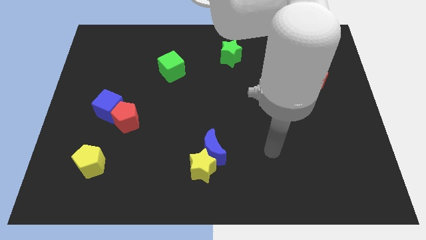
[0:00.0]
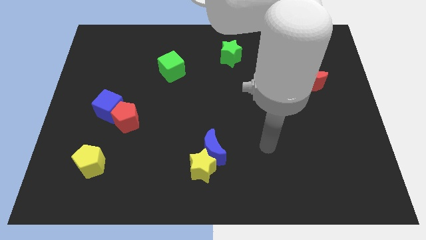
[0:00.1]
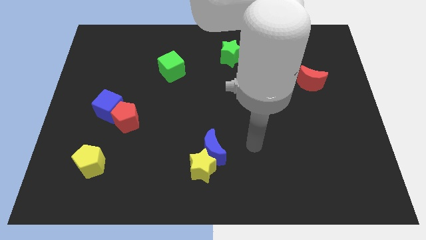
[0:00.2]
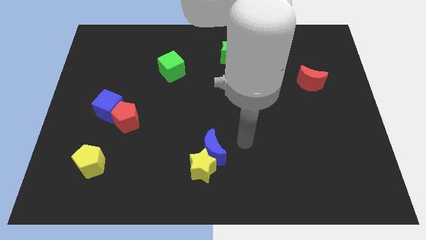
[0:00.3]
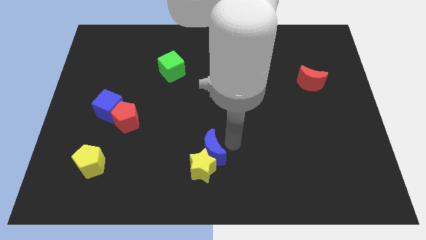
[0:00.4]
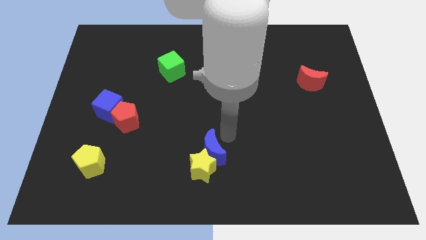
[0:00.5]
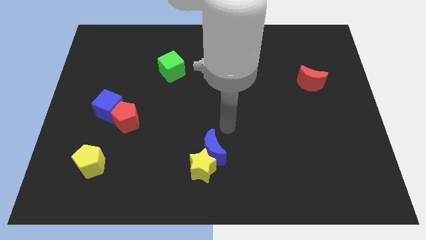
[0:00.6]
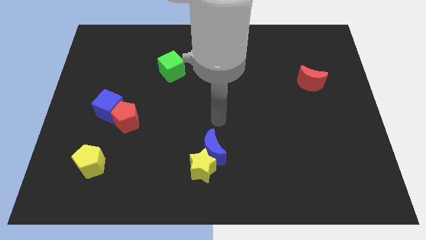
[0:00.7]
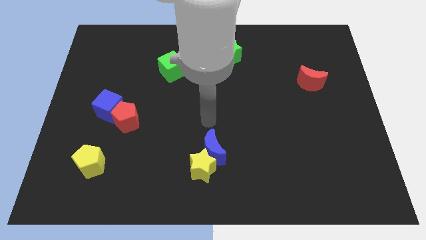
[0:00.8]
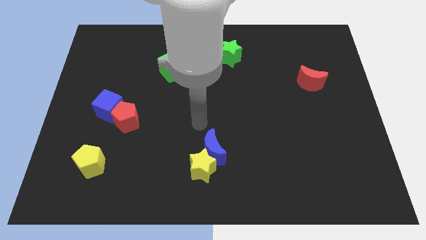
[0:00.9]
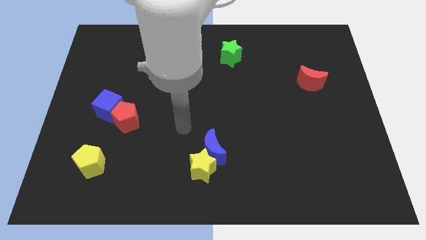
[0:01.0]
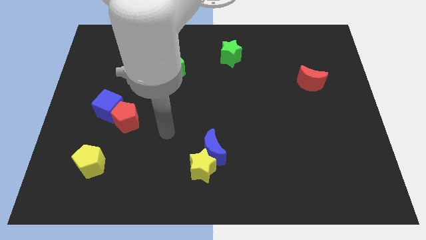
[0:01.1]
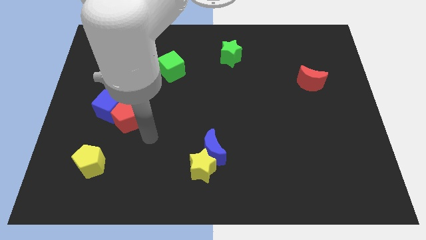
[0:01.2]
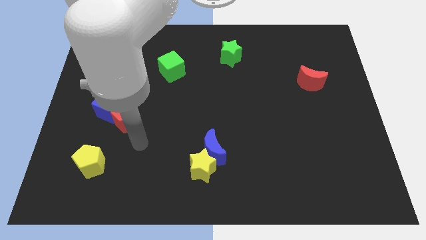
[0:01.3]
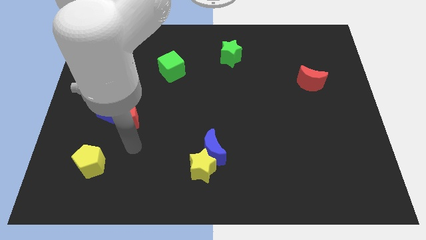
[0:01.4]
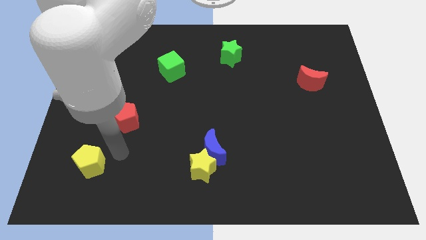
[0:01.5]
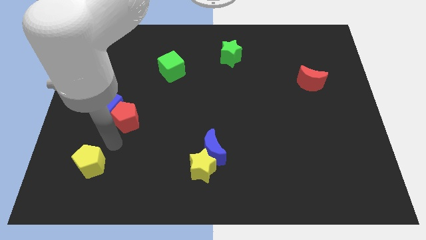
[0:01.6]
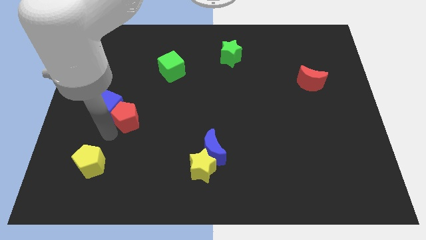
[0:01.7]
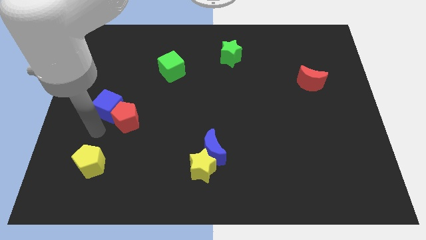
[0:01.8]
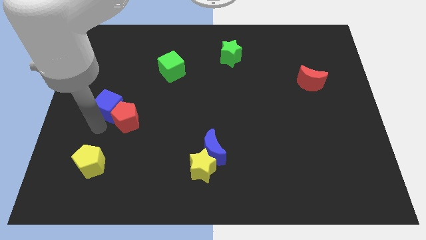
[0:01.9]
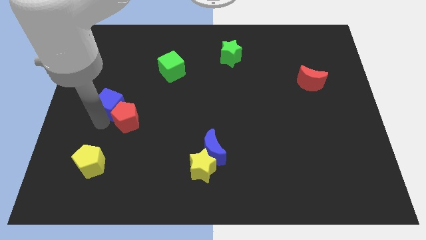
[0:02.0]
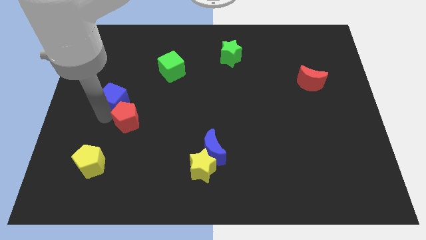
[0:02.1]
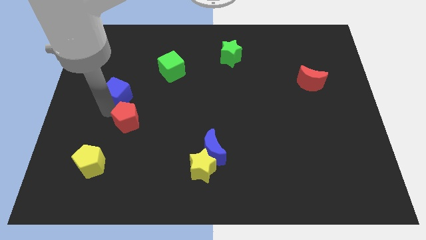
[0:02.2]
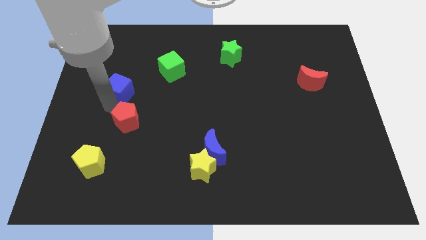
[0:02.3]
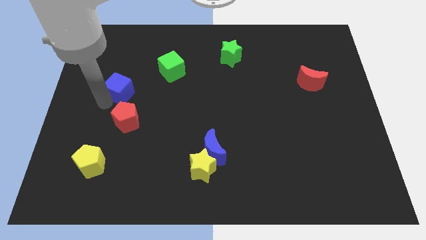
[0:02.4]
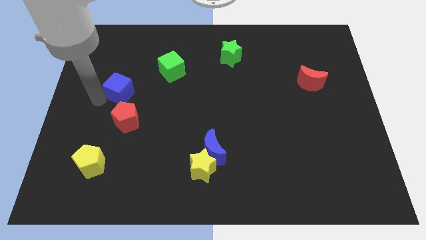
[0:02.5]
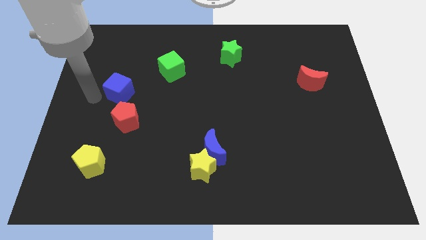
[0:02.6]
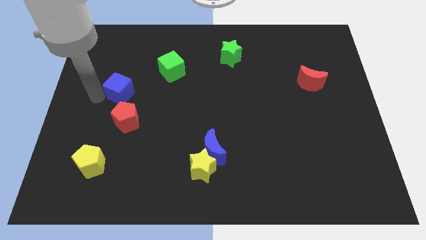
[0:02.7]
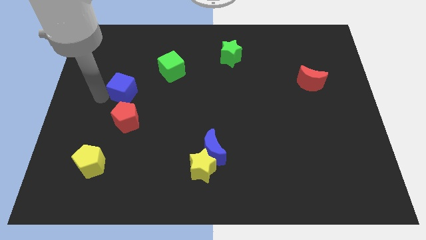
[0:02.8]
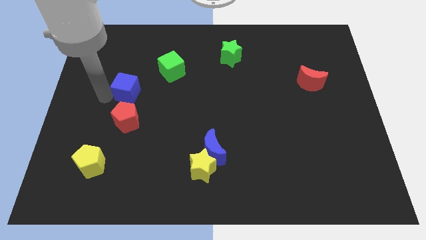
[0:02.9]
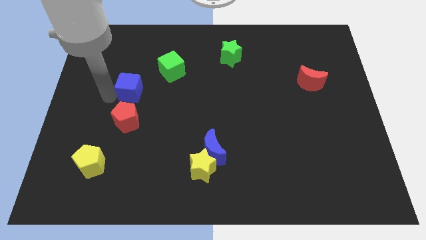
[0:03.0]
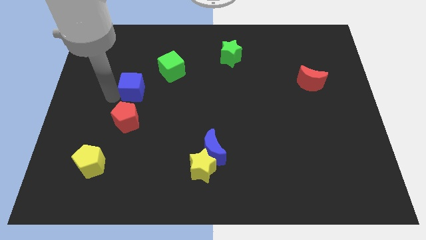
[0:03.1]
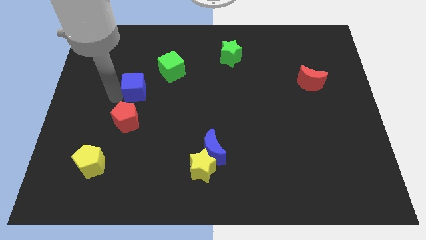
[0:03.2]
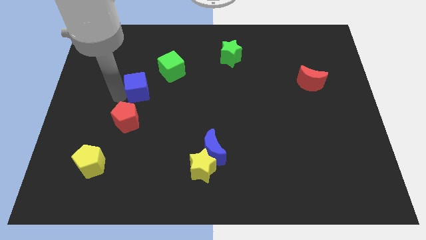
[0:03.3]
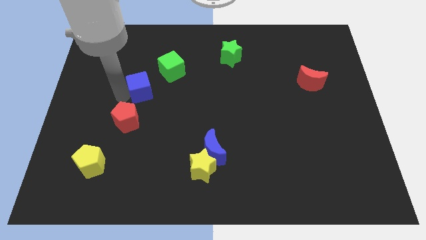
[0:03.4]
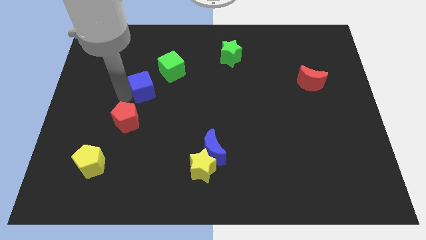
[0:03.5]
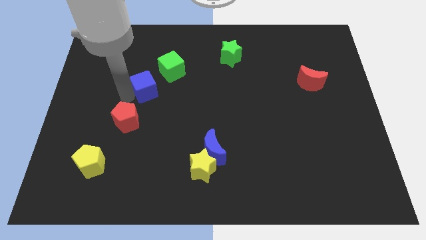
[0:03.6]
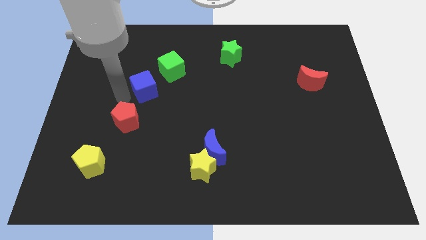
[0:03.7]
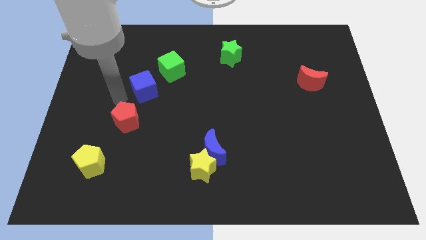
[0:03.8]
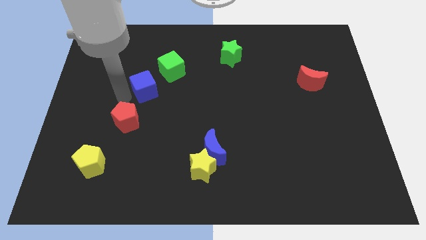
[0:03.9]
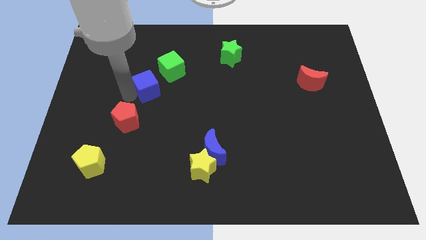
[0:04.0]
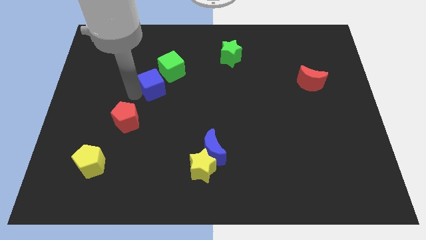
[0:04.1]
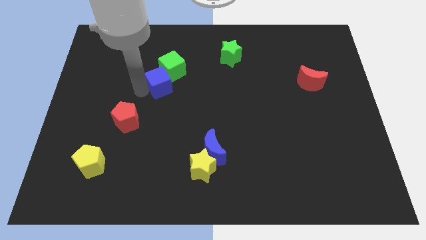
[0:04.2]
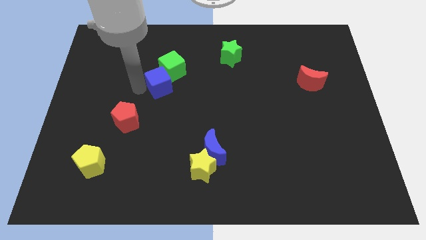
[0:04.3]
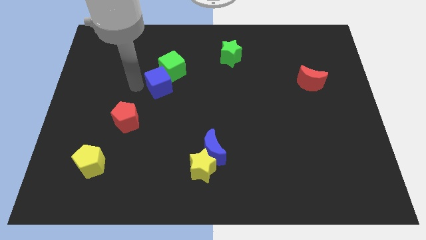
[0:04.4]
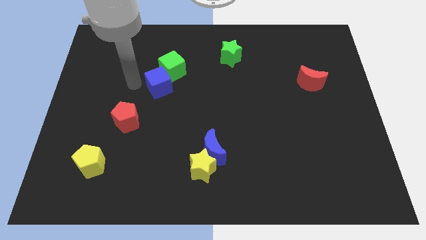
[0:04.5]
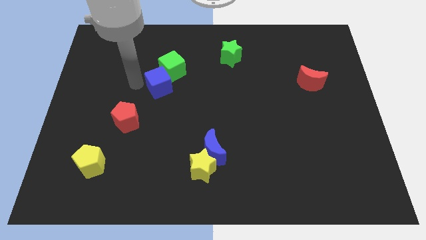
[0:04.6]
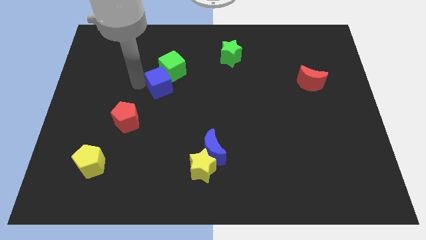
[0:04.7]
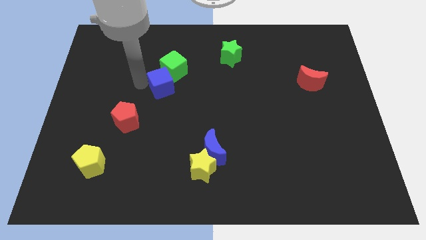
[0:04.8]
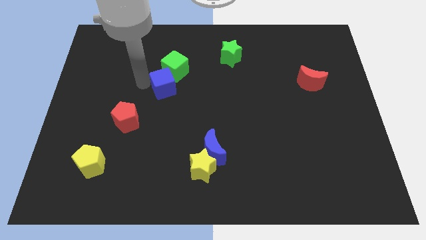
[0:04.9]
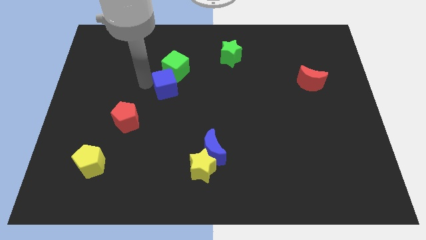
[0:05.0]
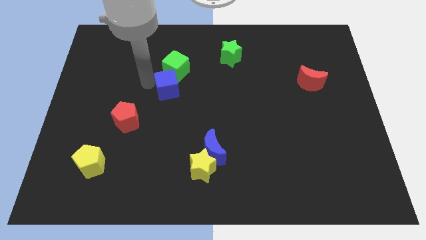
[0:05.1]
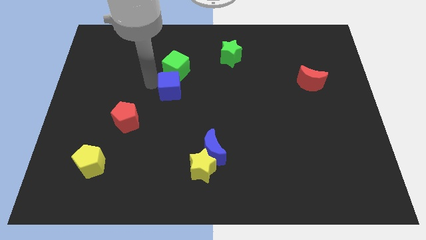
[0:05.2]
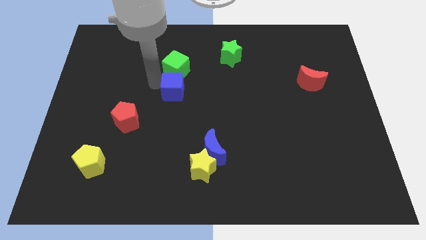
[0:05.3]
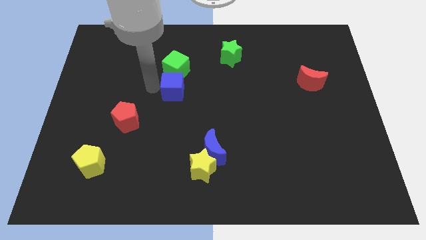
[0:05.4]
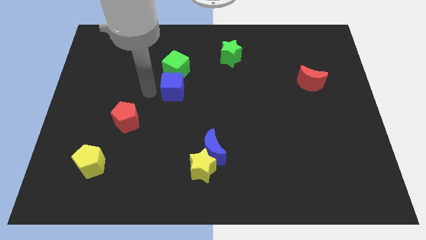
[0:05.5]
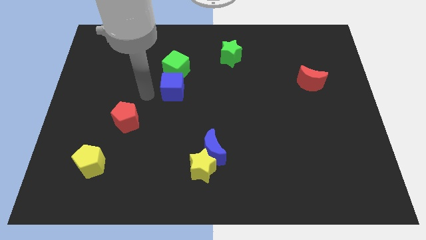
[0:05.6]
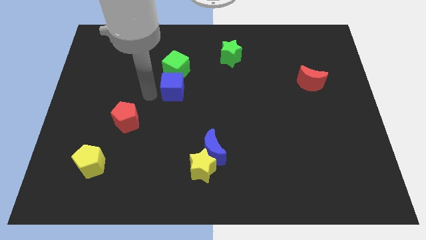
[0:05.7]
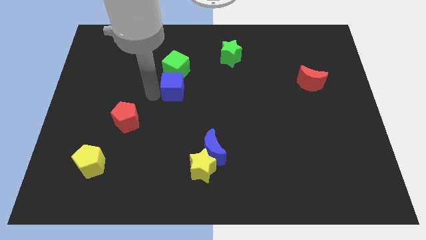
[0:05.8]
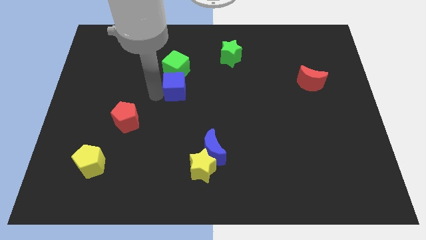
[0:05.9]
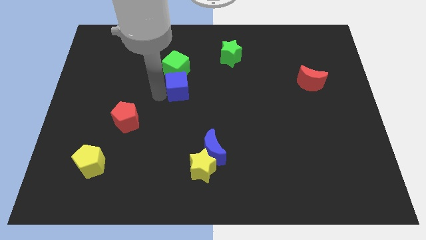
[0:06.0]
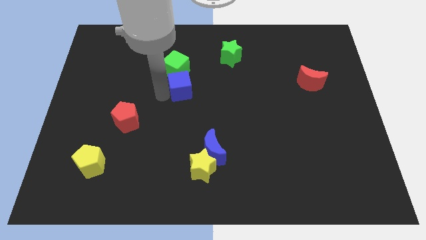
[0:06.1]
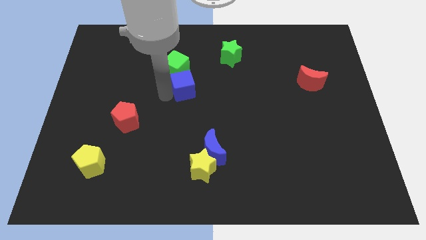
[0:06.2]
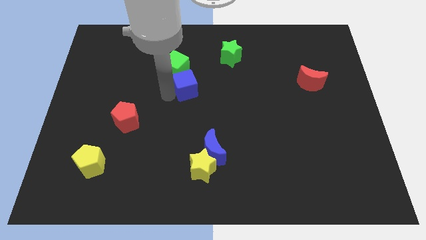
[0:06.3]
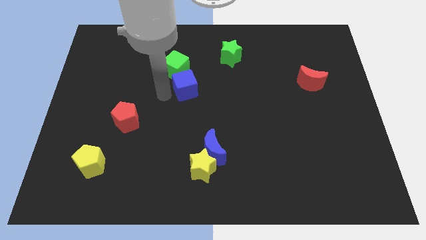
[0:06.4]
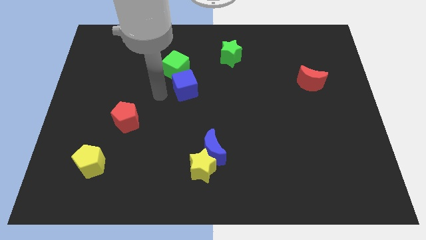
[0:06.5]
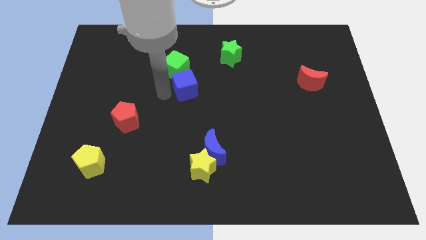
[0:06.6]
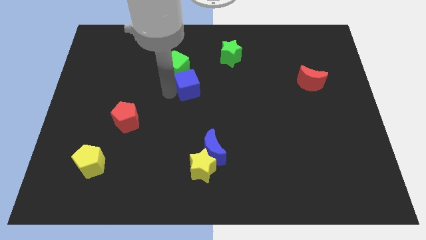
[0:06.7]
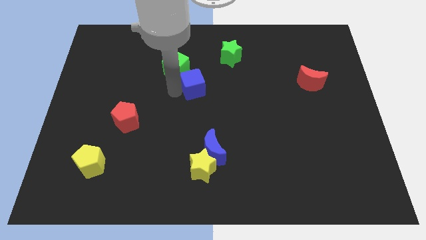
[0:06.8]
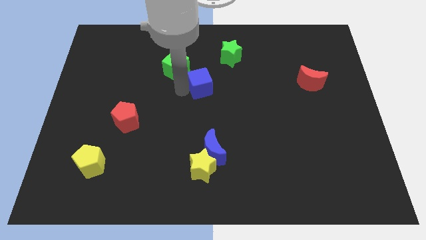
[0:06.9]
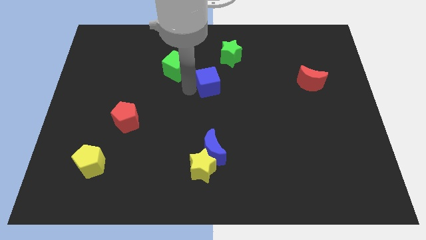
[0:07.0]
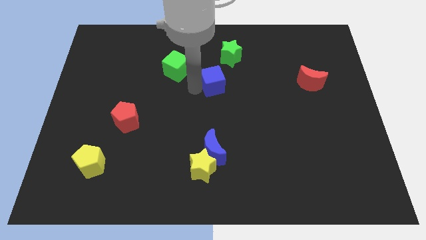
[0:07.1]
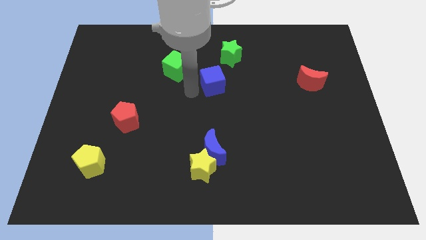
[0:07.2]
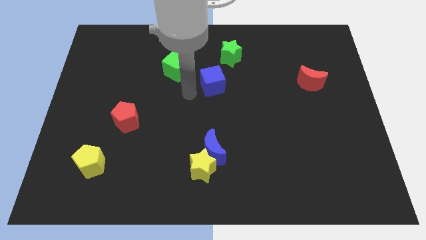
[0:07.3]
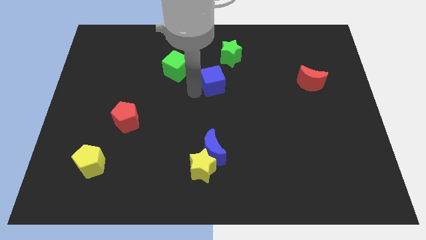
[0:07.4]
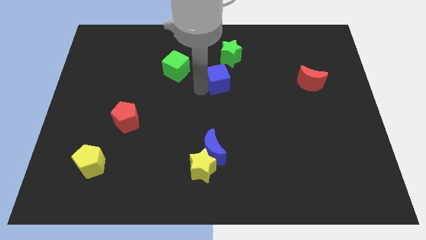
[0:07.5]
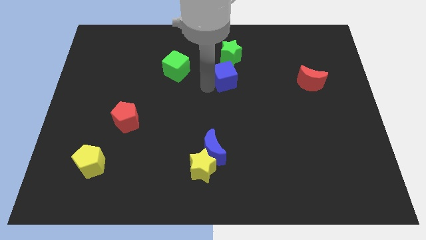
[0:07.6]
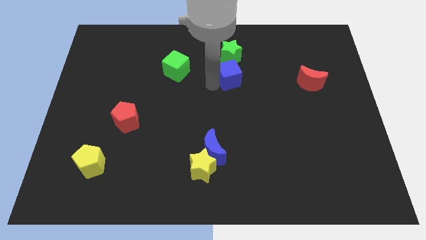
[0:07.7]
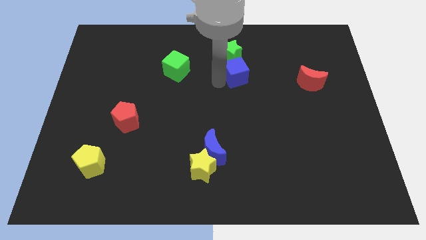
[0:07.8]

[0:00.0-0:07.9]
move the blue cube to the bottom right side of the green star
